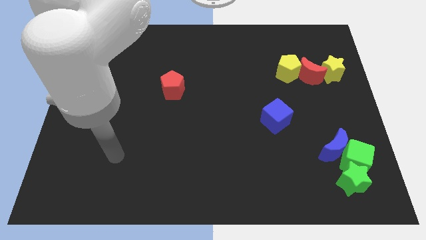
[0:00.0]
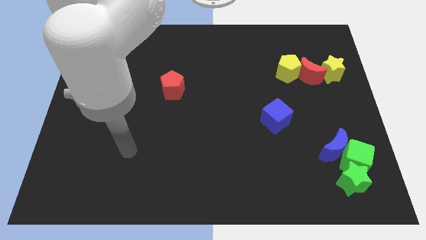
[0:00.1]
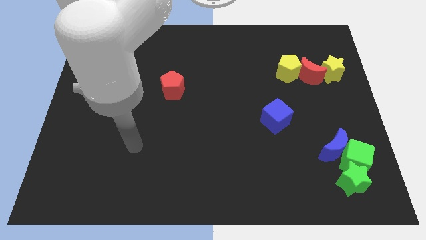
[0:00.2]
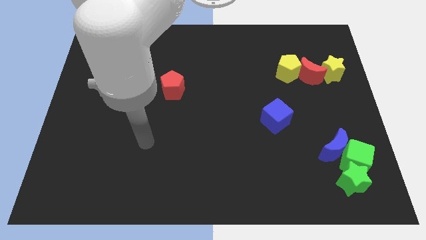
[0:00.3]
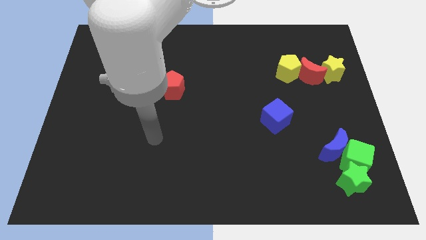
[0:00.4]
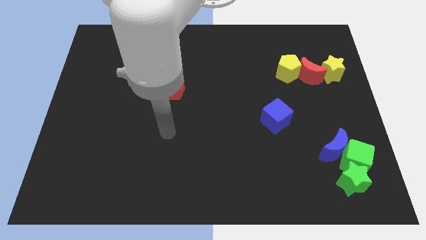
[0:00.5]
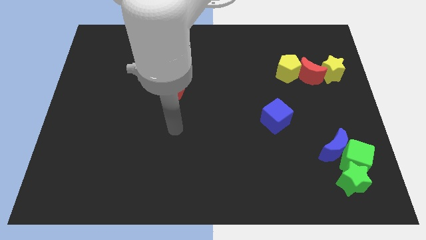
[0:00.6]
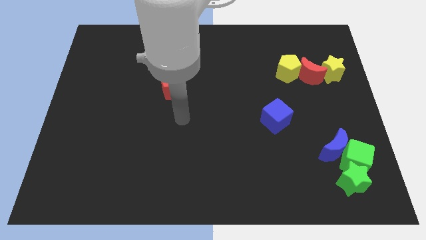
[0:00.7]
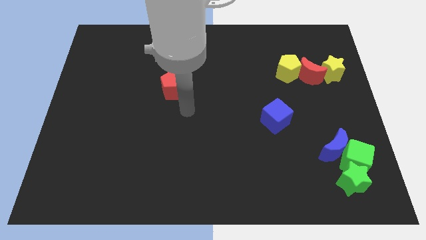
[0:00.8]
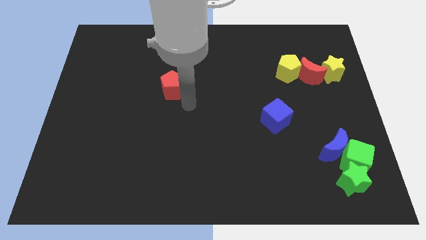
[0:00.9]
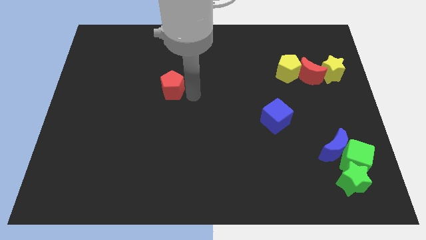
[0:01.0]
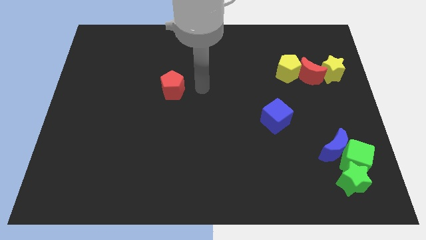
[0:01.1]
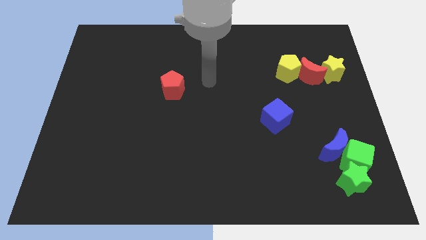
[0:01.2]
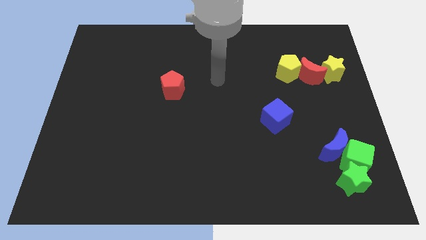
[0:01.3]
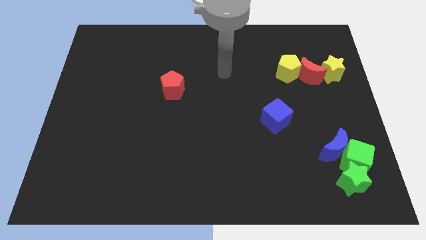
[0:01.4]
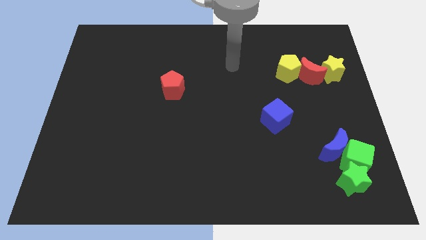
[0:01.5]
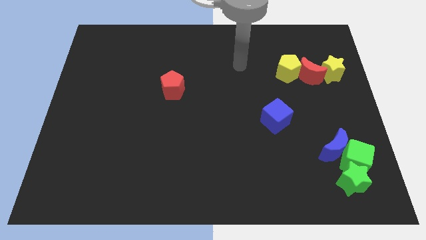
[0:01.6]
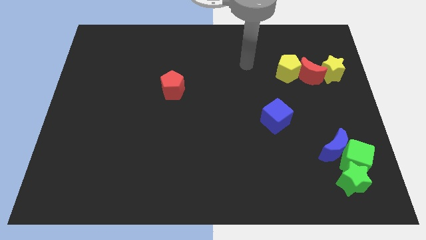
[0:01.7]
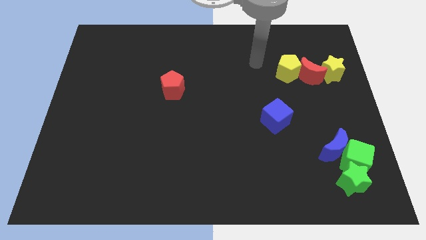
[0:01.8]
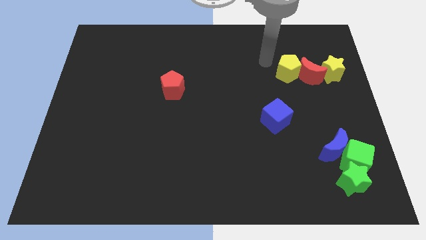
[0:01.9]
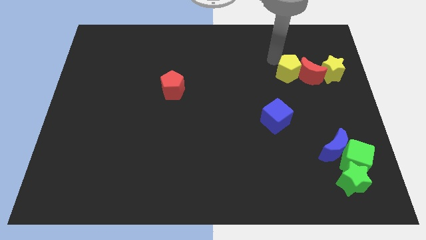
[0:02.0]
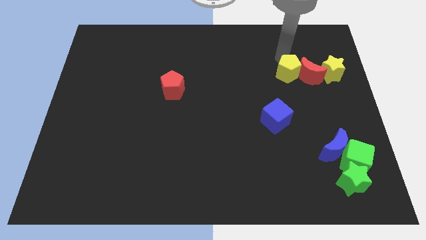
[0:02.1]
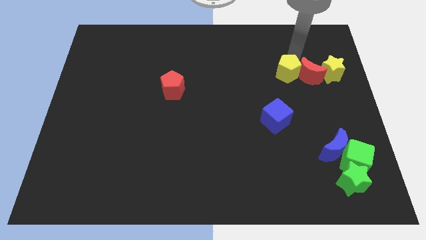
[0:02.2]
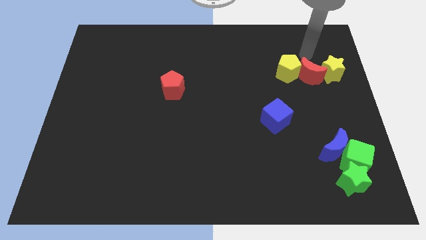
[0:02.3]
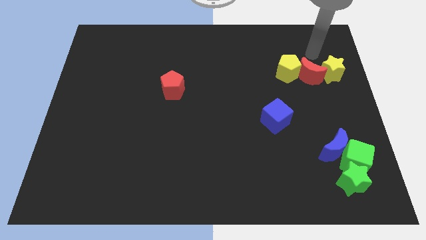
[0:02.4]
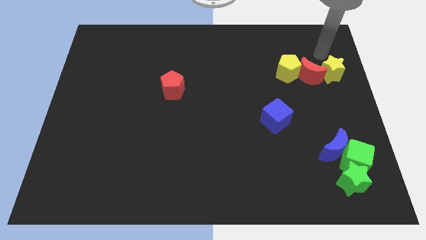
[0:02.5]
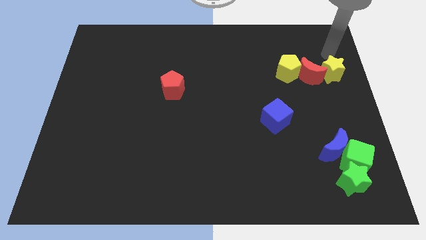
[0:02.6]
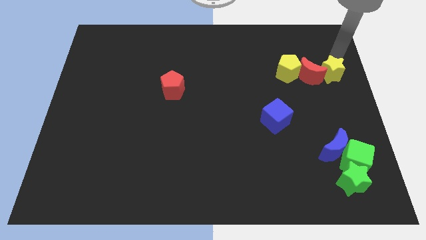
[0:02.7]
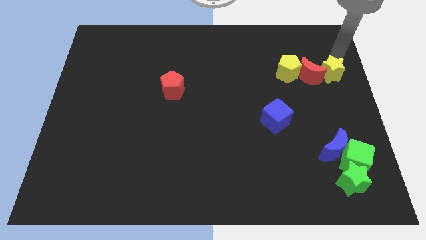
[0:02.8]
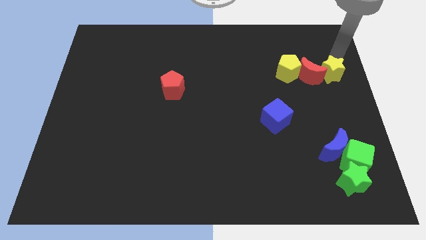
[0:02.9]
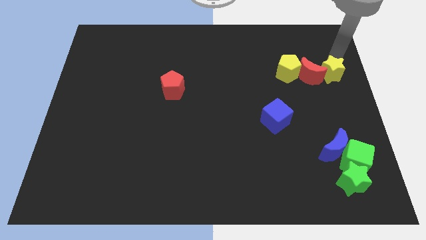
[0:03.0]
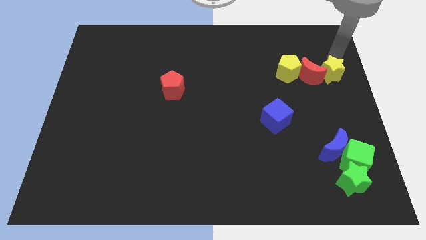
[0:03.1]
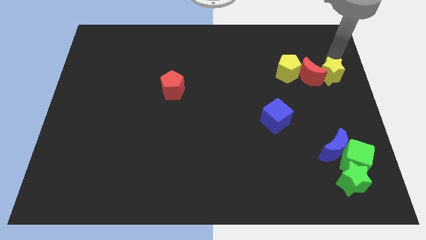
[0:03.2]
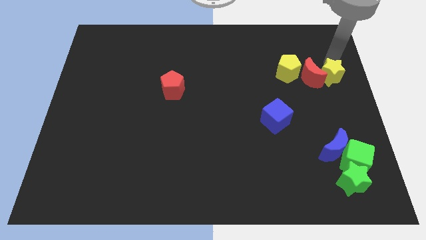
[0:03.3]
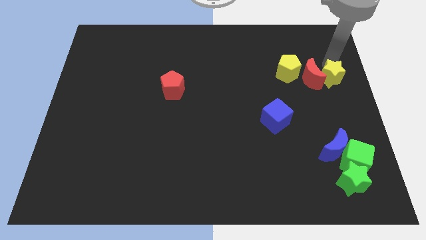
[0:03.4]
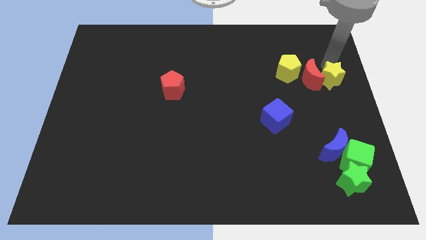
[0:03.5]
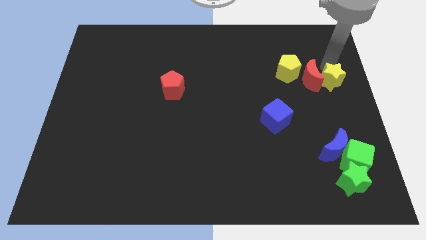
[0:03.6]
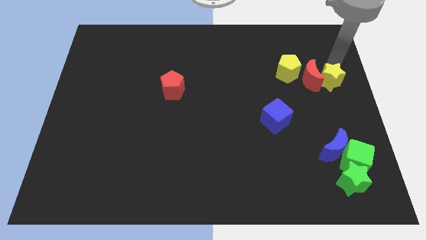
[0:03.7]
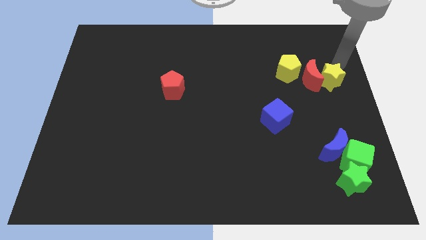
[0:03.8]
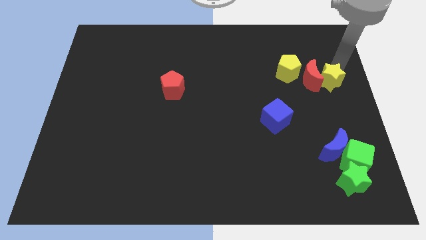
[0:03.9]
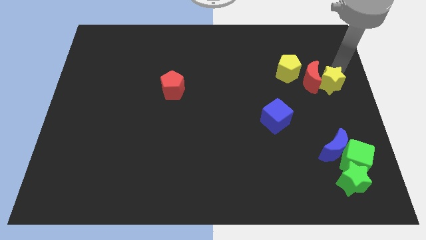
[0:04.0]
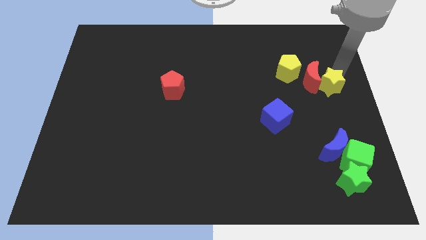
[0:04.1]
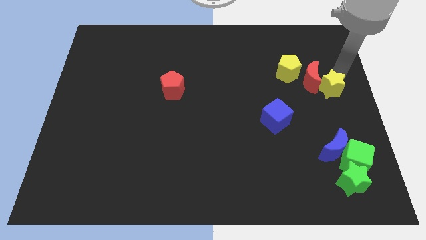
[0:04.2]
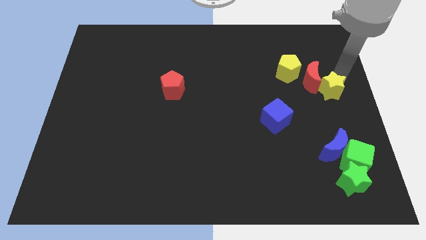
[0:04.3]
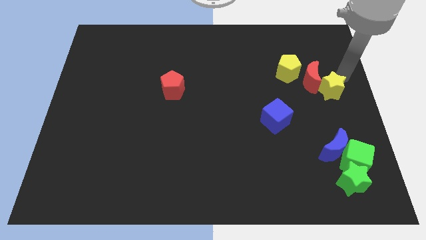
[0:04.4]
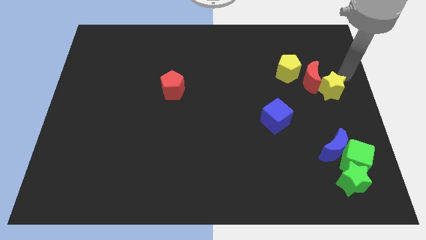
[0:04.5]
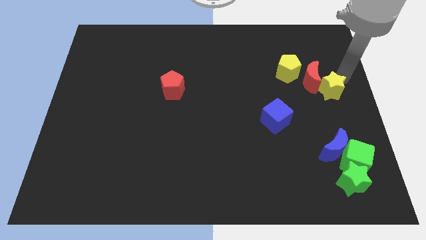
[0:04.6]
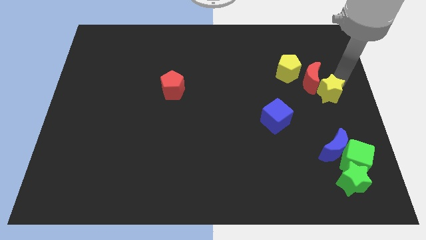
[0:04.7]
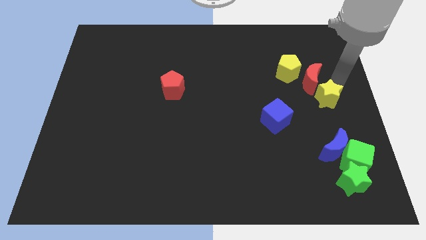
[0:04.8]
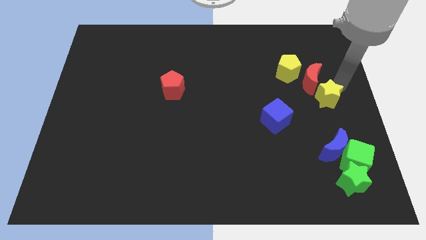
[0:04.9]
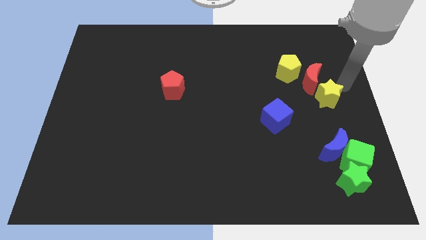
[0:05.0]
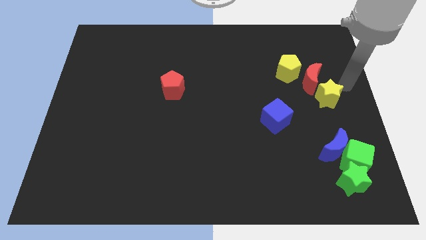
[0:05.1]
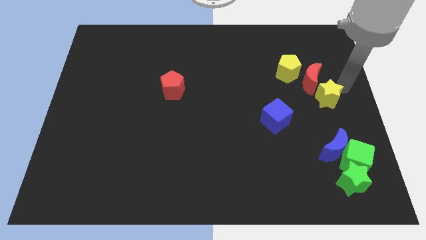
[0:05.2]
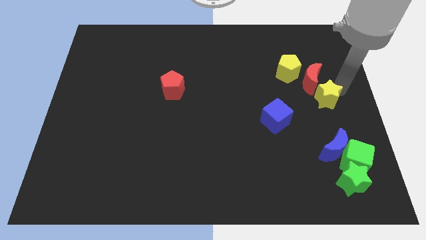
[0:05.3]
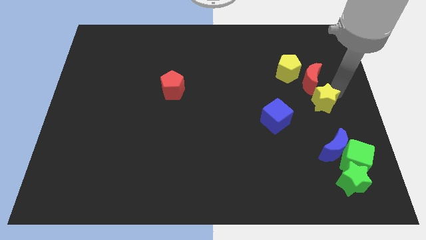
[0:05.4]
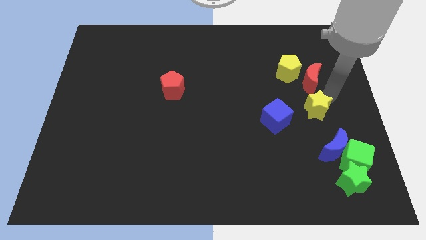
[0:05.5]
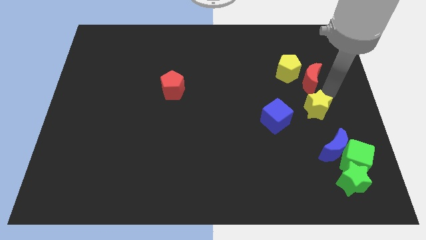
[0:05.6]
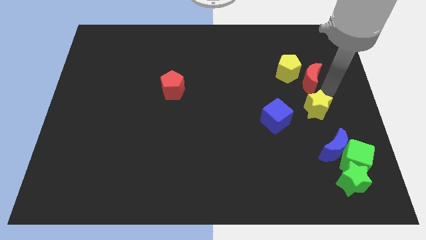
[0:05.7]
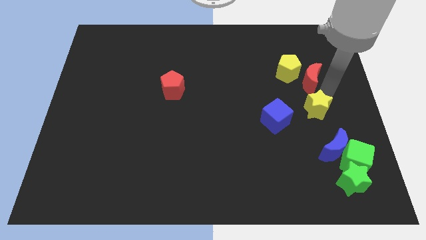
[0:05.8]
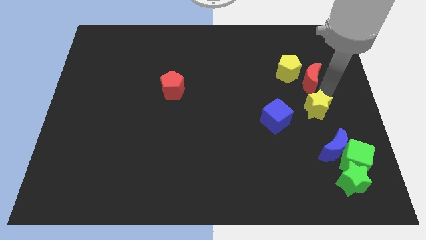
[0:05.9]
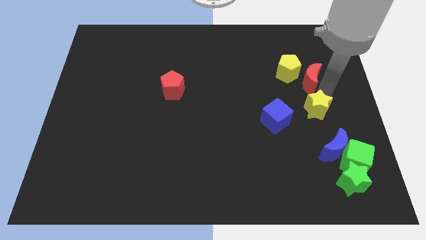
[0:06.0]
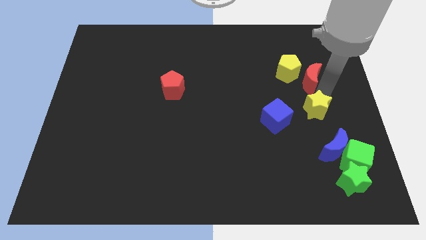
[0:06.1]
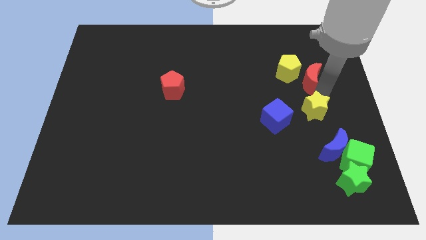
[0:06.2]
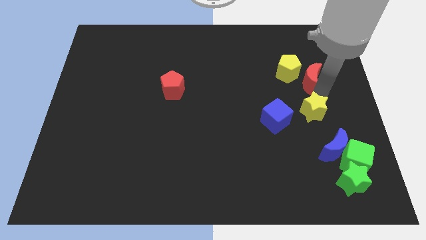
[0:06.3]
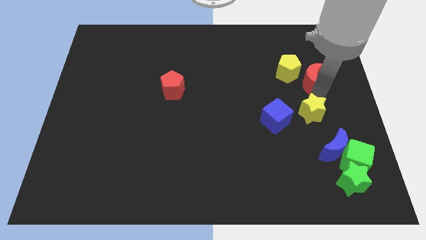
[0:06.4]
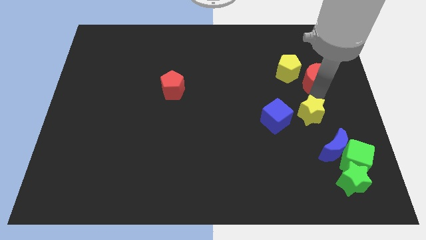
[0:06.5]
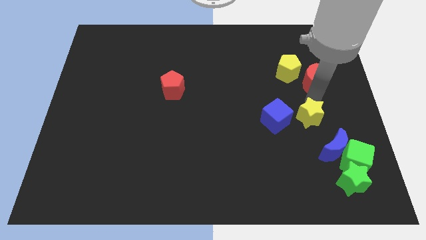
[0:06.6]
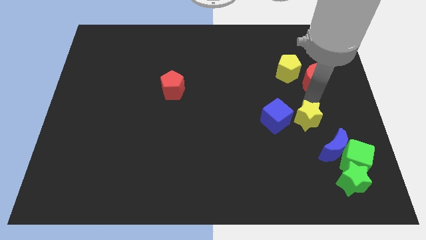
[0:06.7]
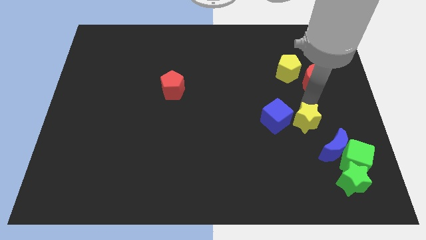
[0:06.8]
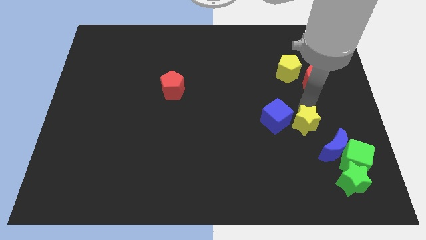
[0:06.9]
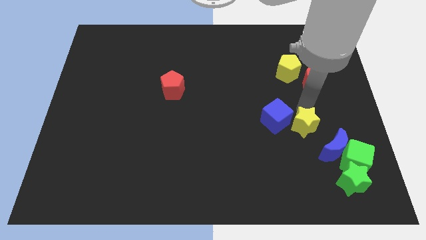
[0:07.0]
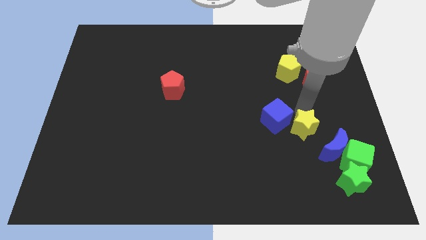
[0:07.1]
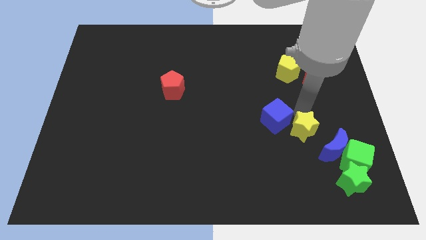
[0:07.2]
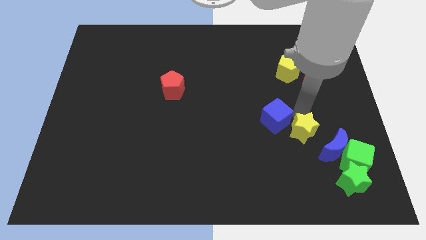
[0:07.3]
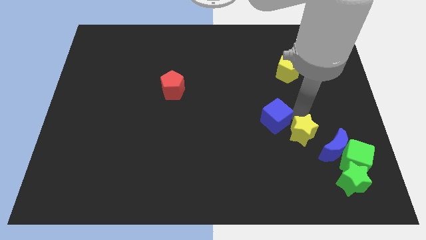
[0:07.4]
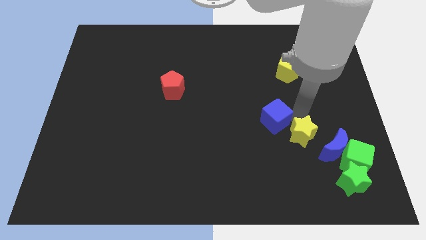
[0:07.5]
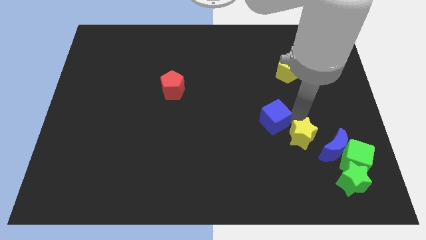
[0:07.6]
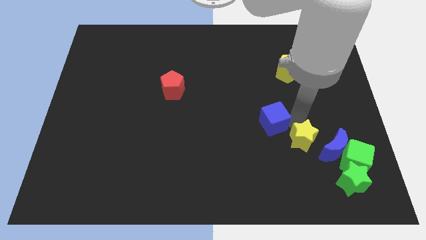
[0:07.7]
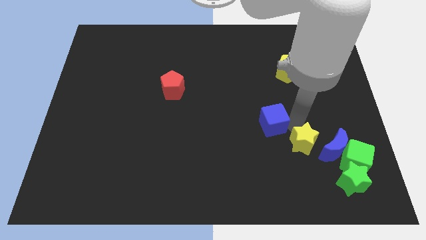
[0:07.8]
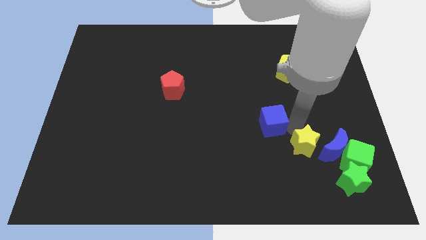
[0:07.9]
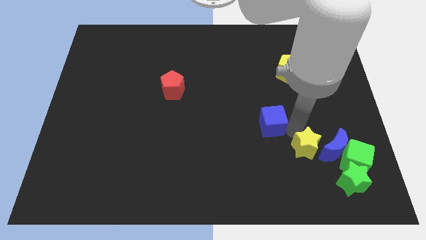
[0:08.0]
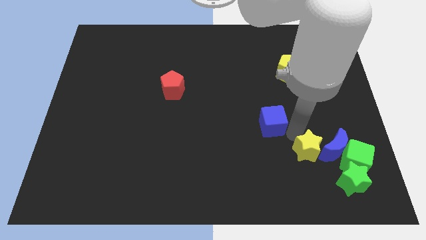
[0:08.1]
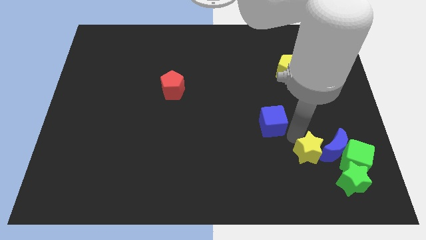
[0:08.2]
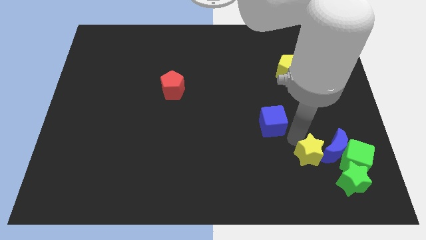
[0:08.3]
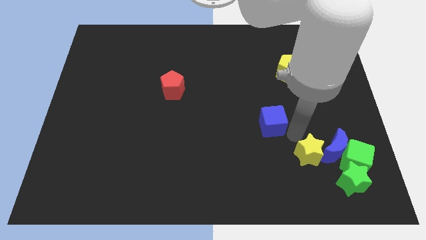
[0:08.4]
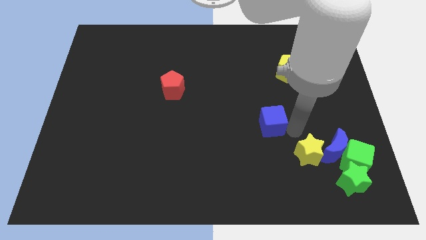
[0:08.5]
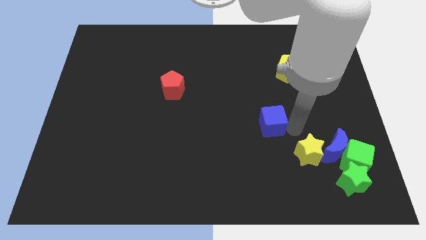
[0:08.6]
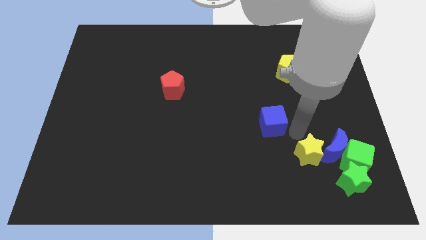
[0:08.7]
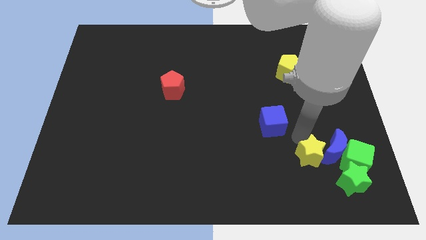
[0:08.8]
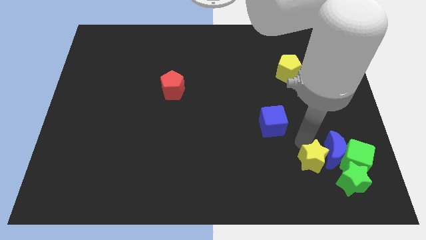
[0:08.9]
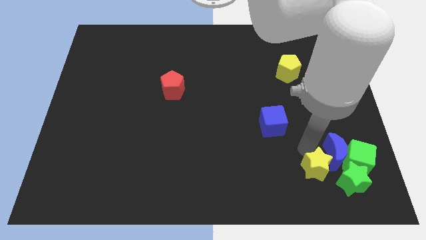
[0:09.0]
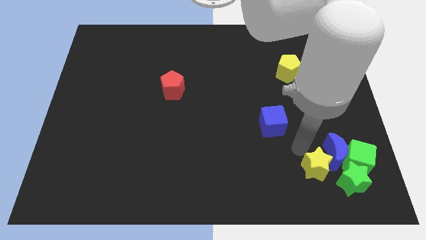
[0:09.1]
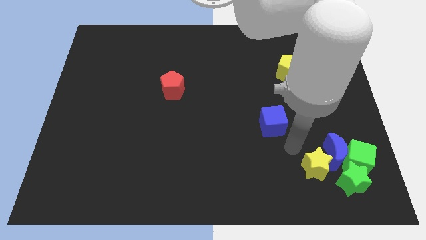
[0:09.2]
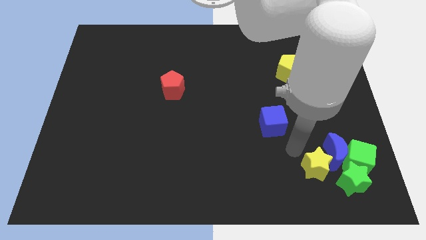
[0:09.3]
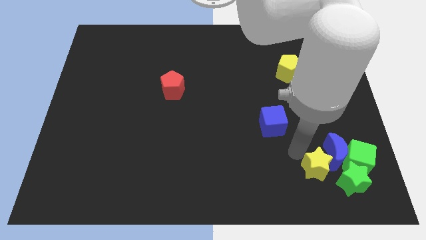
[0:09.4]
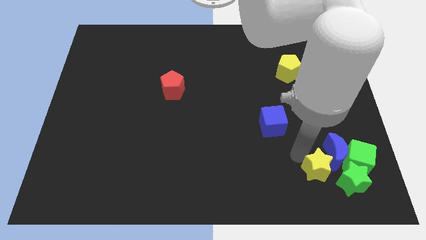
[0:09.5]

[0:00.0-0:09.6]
move the yellow star diagonally down and to the left of the green cube
